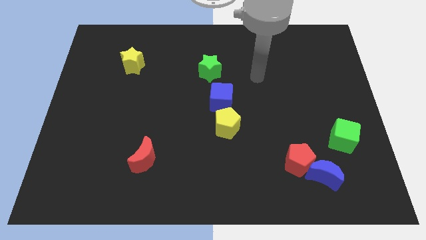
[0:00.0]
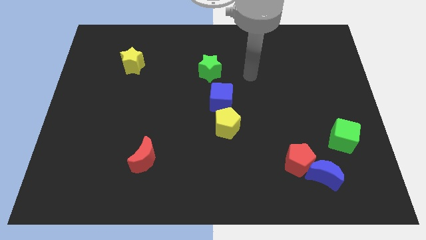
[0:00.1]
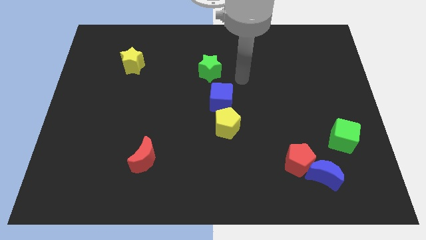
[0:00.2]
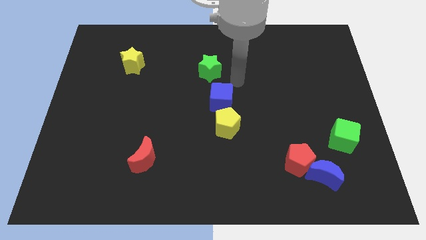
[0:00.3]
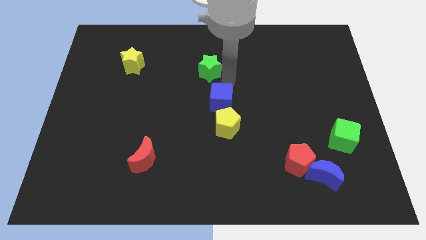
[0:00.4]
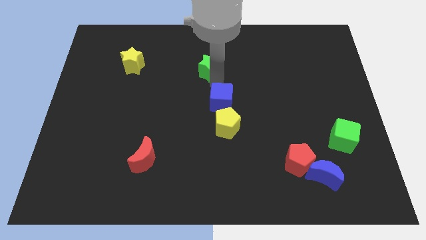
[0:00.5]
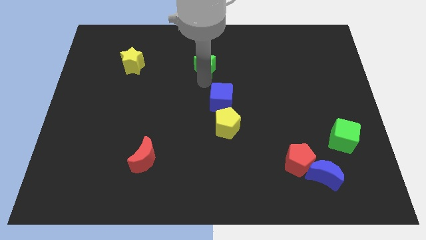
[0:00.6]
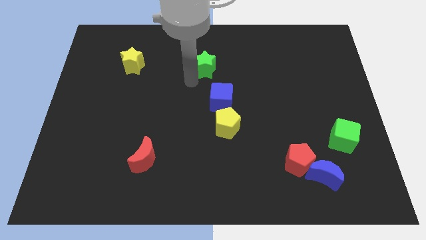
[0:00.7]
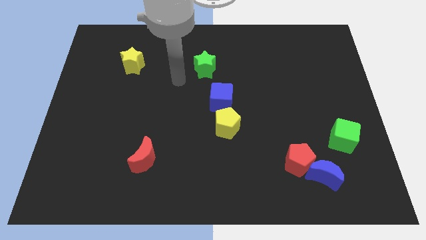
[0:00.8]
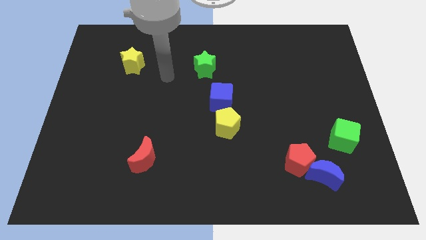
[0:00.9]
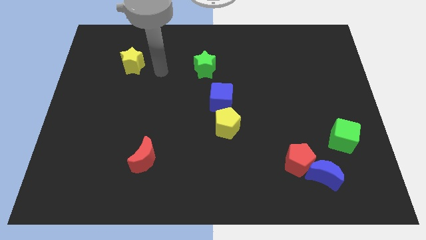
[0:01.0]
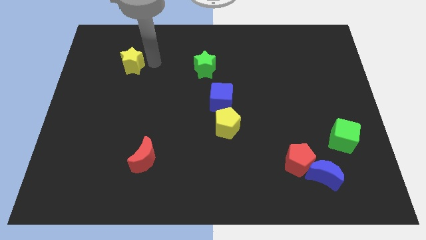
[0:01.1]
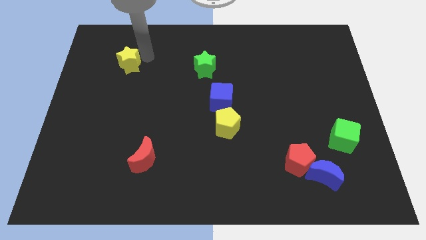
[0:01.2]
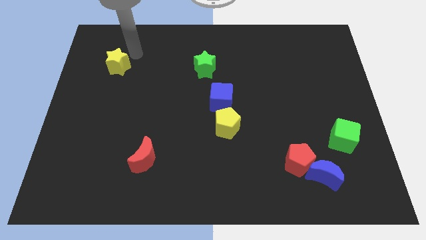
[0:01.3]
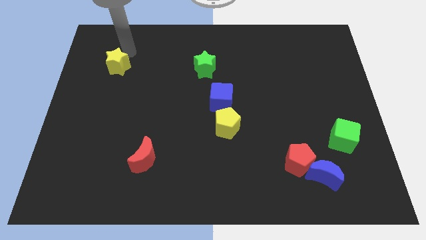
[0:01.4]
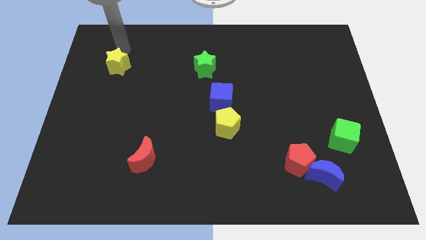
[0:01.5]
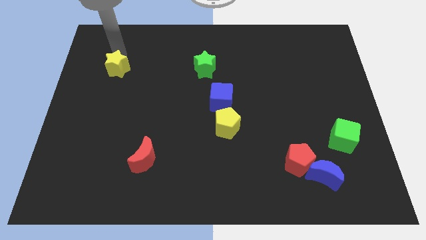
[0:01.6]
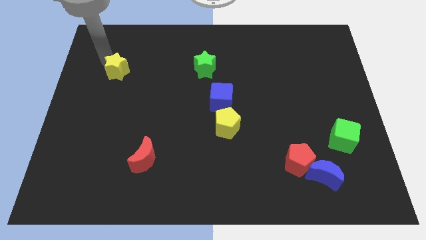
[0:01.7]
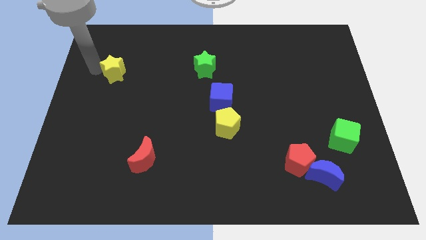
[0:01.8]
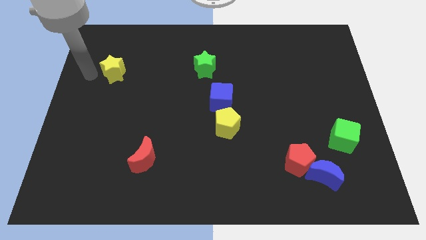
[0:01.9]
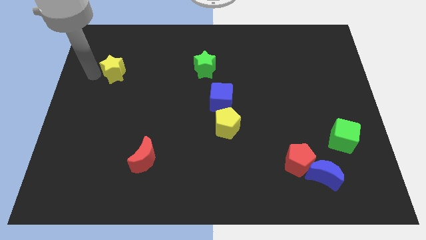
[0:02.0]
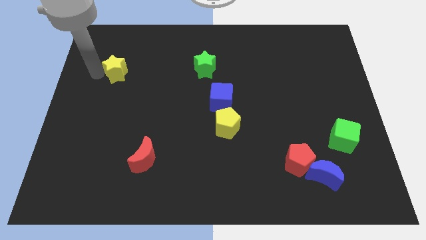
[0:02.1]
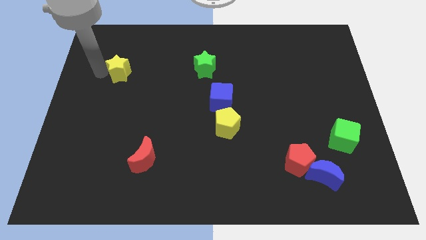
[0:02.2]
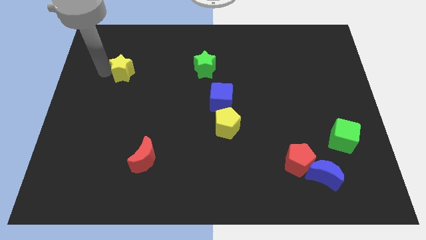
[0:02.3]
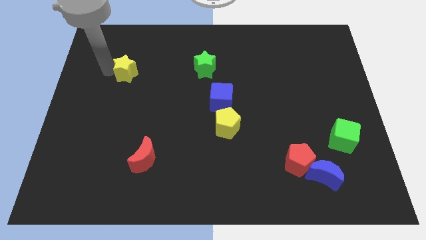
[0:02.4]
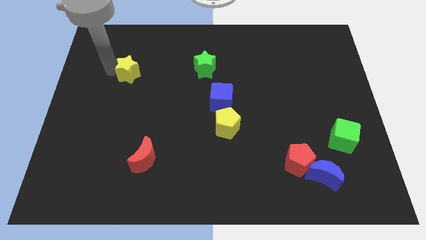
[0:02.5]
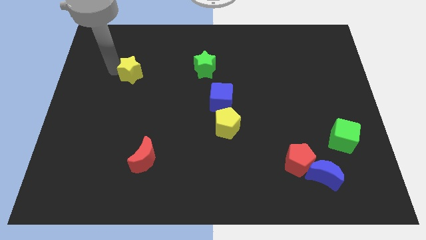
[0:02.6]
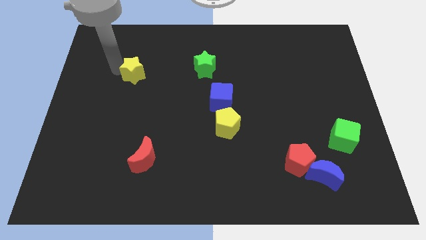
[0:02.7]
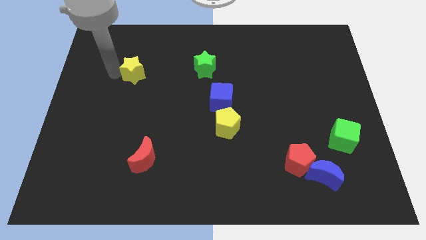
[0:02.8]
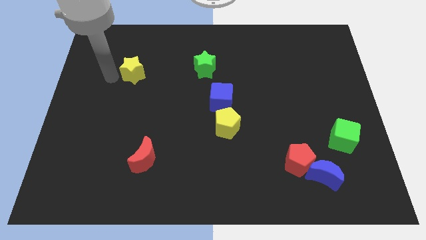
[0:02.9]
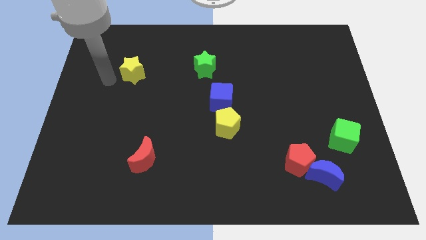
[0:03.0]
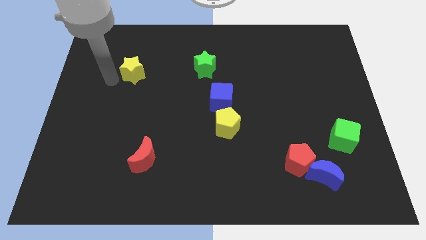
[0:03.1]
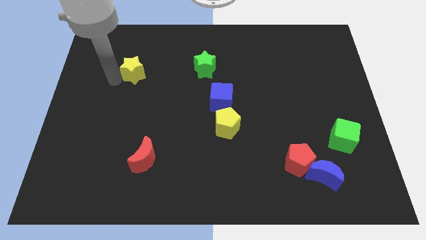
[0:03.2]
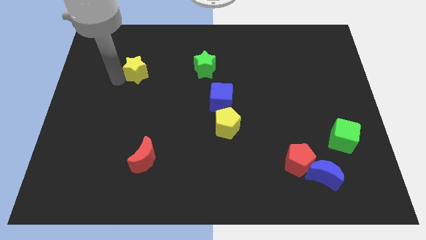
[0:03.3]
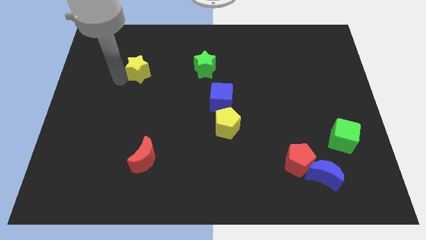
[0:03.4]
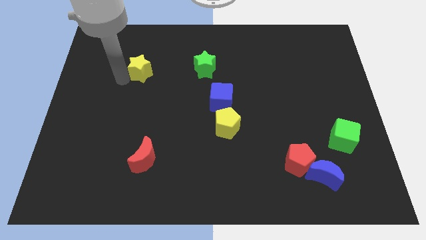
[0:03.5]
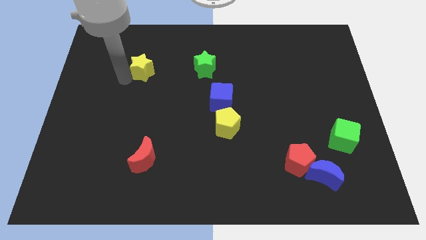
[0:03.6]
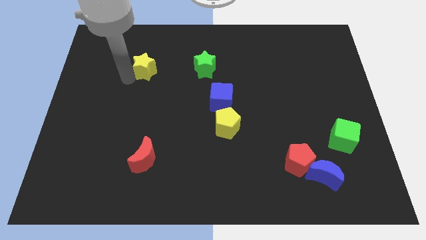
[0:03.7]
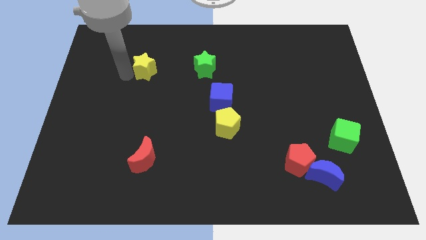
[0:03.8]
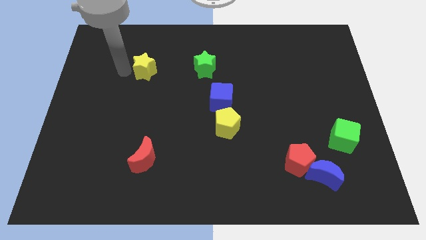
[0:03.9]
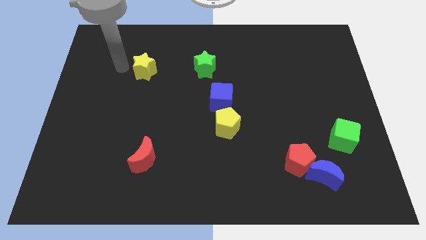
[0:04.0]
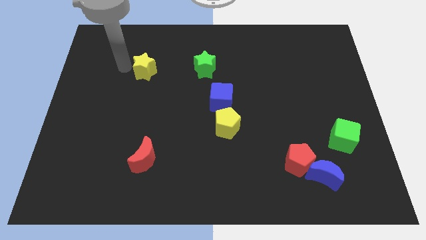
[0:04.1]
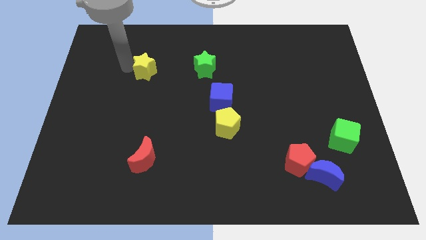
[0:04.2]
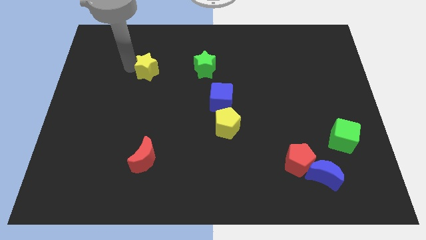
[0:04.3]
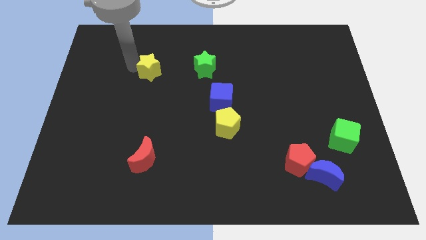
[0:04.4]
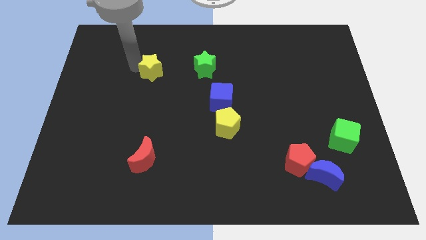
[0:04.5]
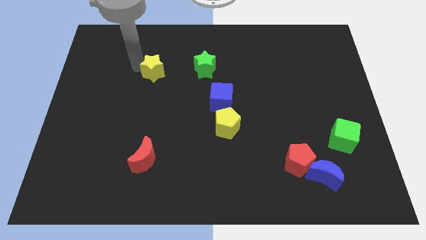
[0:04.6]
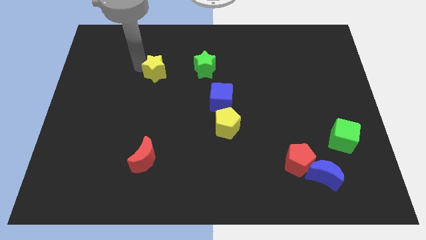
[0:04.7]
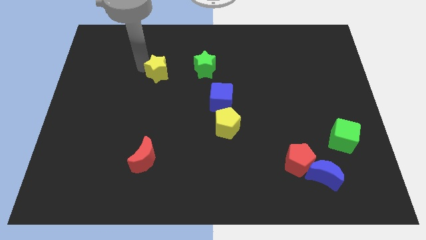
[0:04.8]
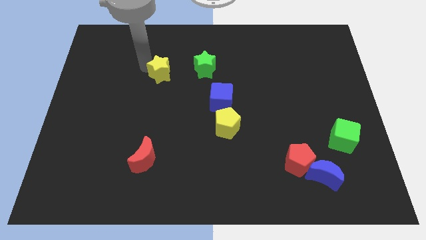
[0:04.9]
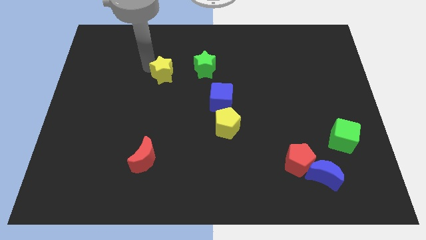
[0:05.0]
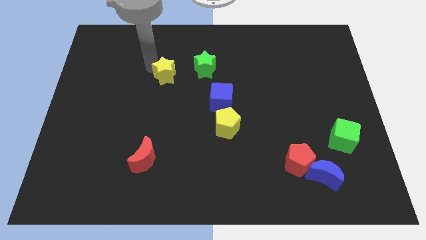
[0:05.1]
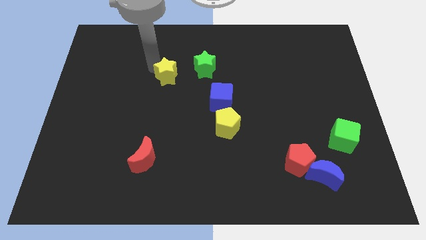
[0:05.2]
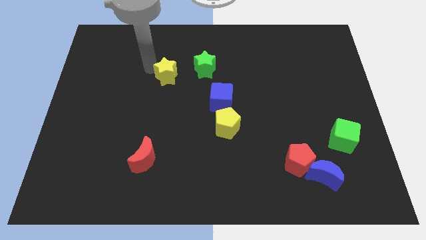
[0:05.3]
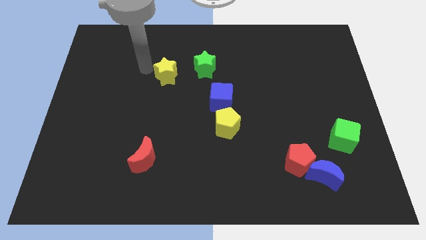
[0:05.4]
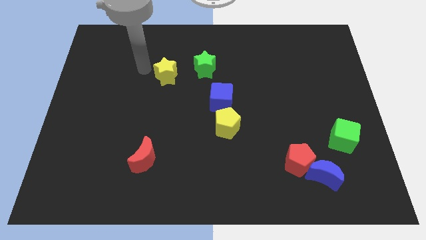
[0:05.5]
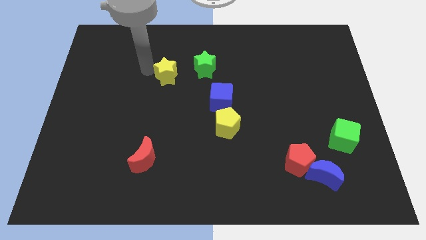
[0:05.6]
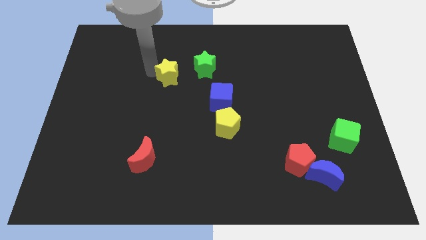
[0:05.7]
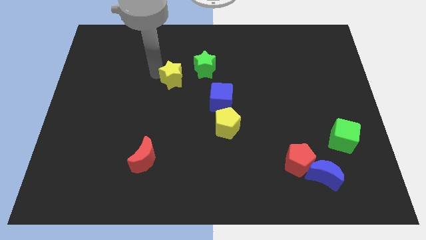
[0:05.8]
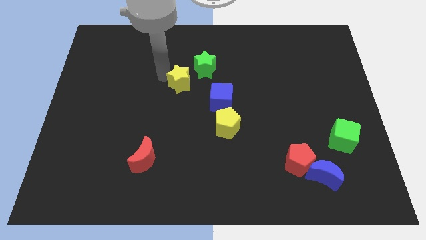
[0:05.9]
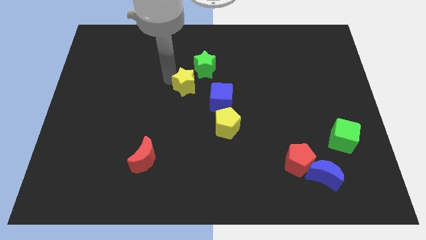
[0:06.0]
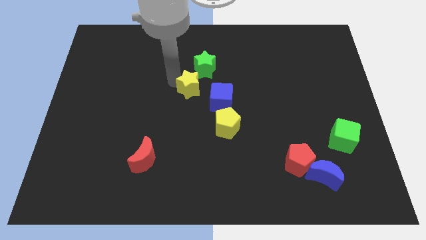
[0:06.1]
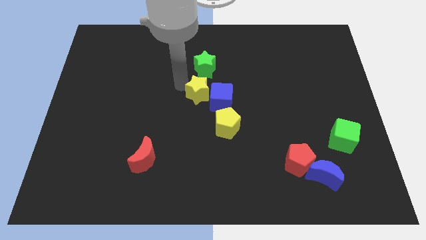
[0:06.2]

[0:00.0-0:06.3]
slide the yellow star next to the blue cube

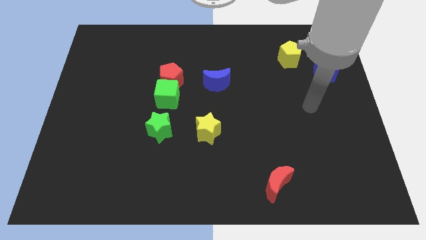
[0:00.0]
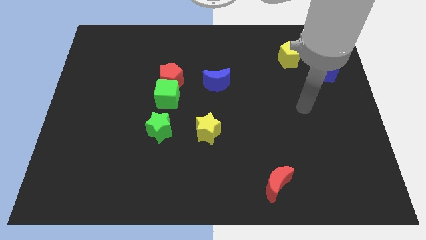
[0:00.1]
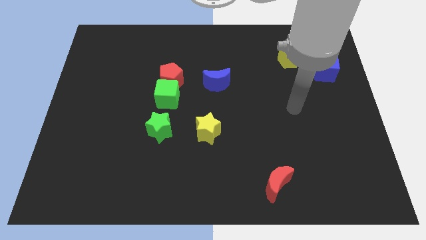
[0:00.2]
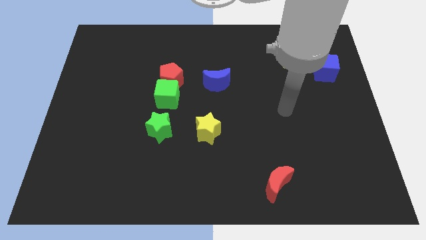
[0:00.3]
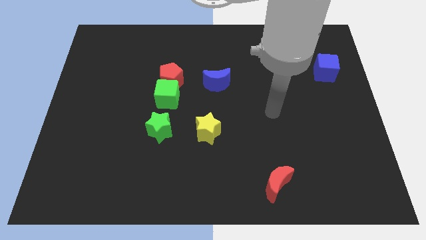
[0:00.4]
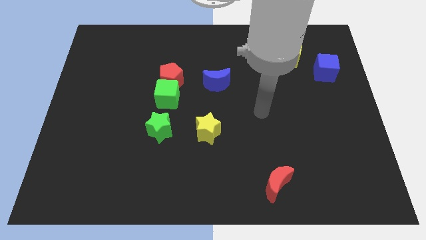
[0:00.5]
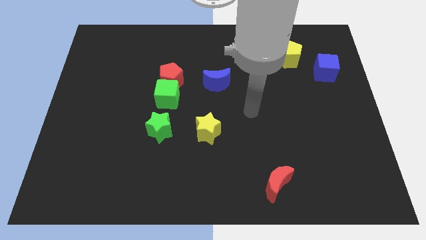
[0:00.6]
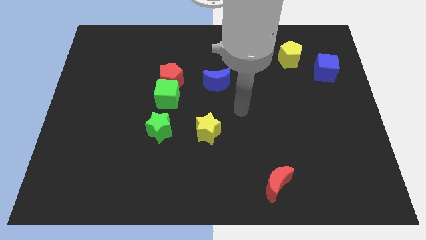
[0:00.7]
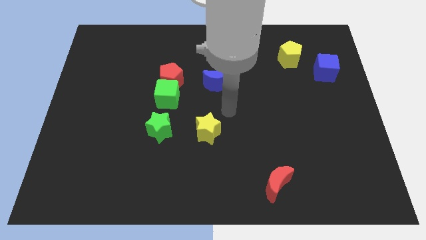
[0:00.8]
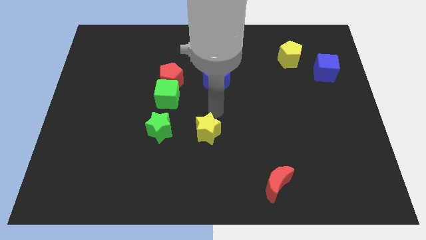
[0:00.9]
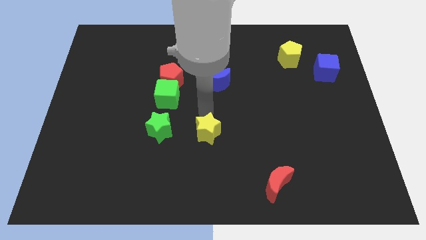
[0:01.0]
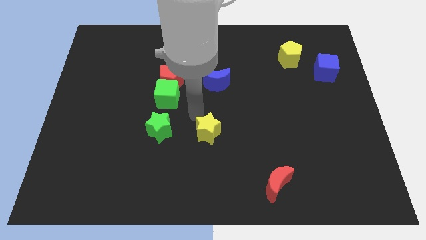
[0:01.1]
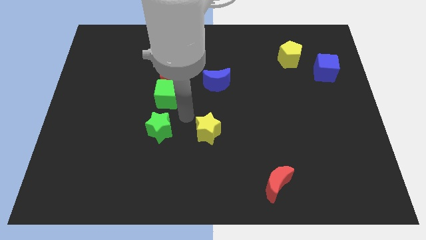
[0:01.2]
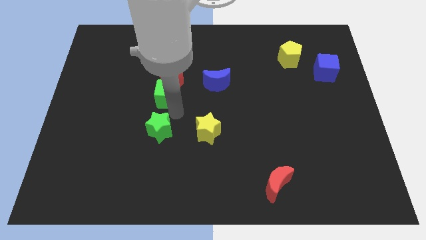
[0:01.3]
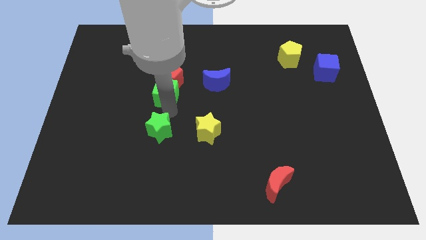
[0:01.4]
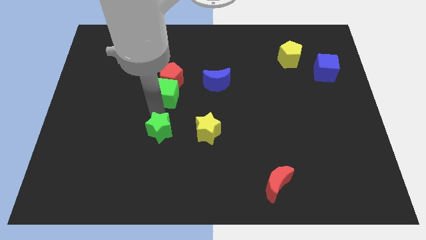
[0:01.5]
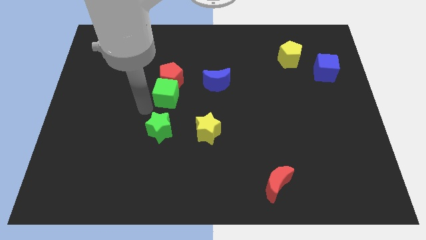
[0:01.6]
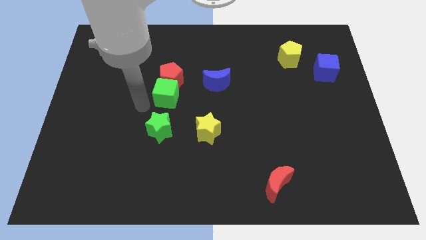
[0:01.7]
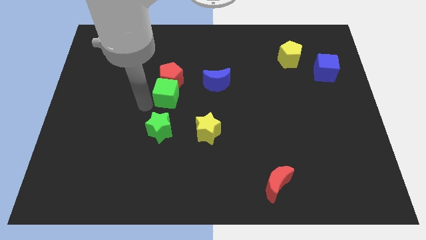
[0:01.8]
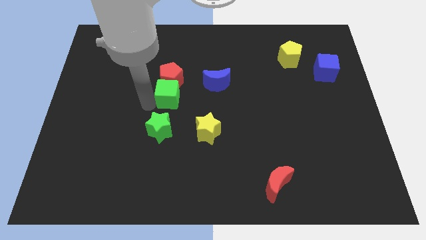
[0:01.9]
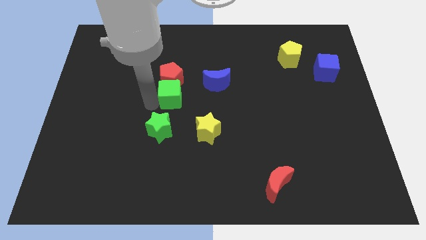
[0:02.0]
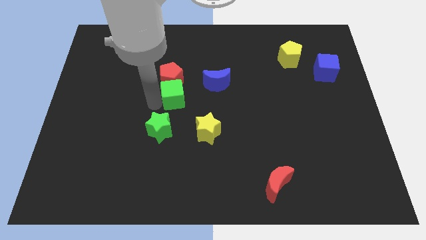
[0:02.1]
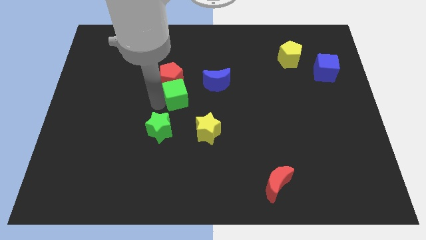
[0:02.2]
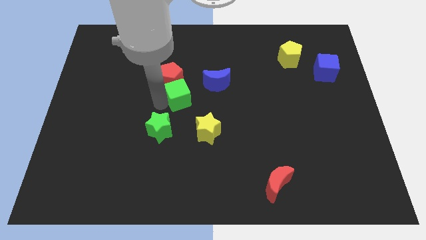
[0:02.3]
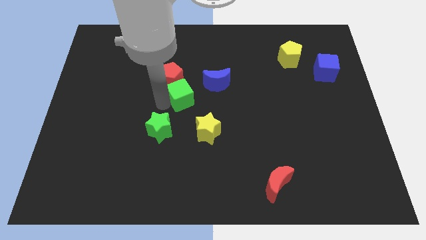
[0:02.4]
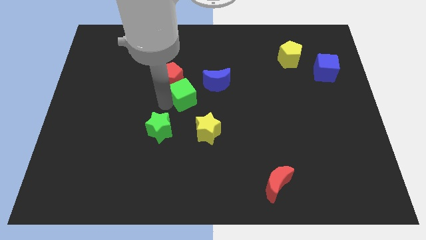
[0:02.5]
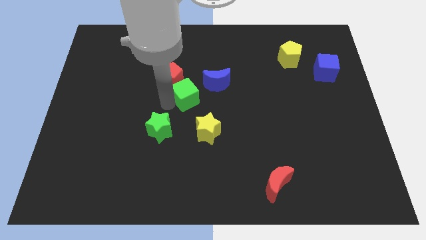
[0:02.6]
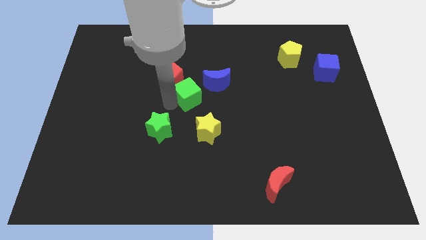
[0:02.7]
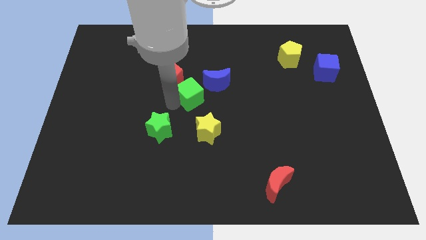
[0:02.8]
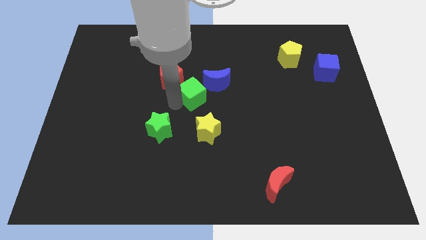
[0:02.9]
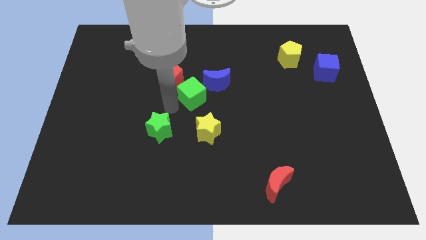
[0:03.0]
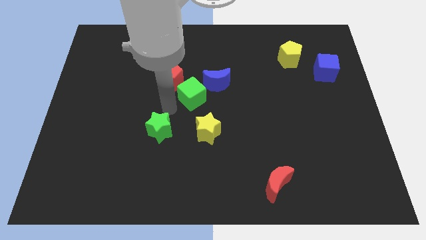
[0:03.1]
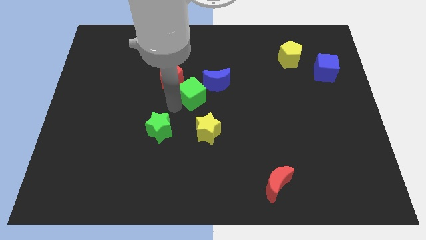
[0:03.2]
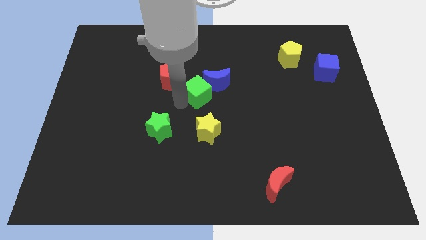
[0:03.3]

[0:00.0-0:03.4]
slide the green cube next to the blue moon
